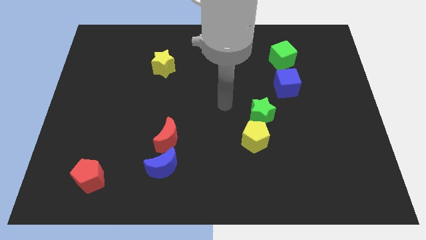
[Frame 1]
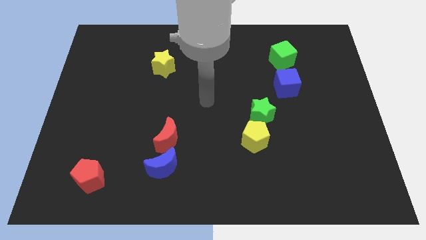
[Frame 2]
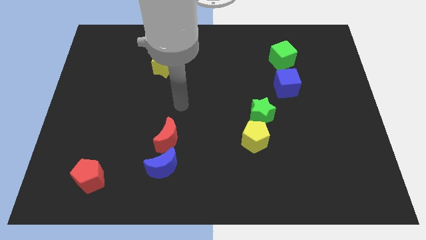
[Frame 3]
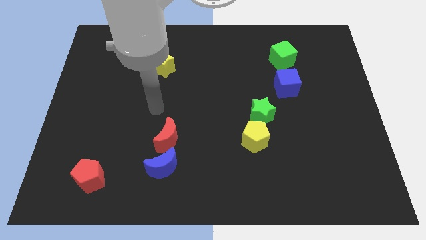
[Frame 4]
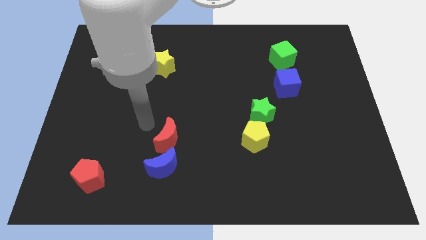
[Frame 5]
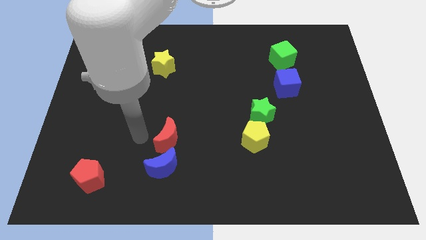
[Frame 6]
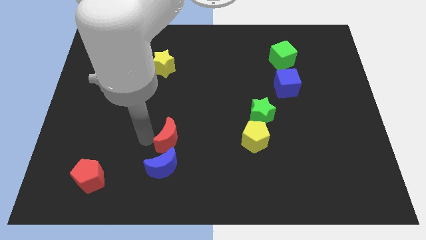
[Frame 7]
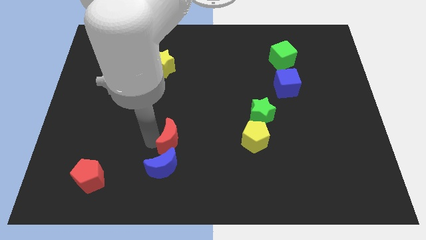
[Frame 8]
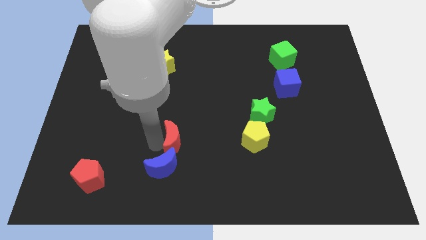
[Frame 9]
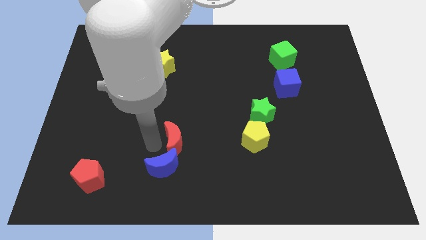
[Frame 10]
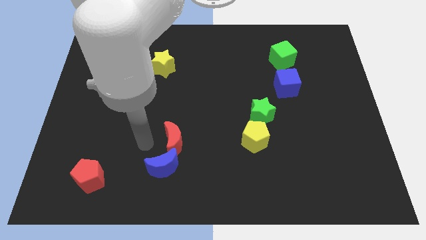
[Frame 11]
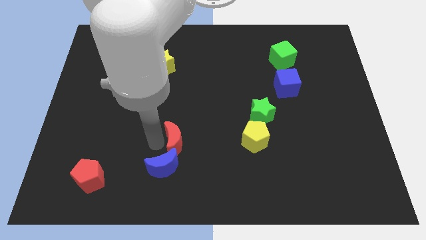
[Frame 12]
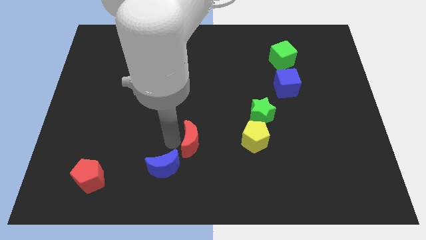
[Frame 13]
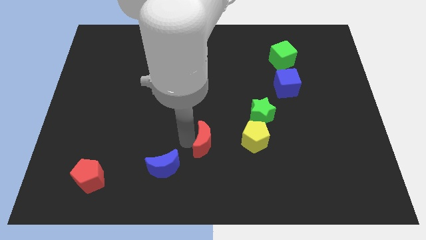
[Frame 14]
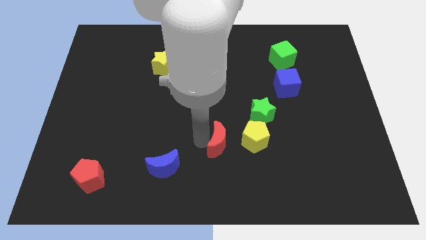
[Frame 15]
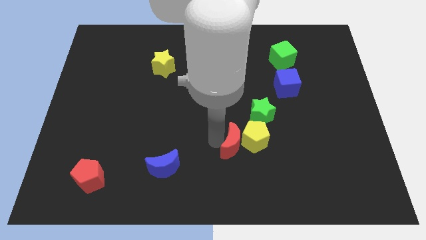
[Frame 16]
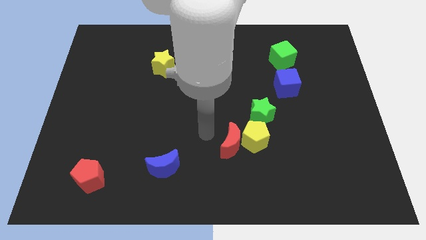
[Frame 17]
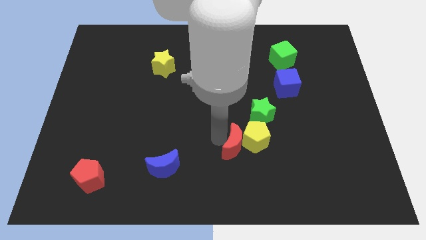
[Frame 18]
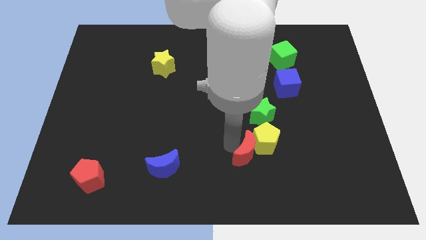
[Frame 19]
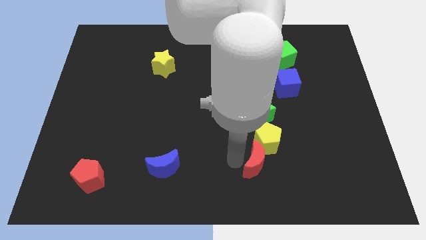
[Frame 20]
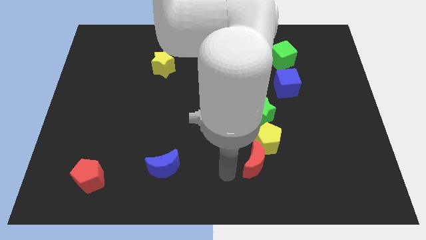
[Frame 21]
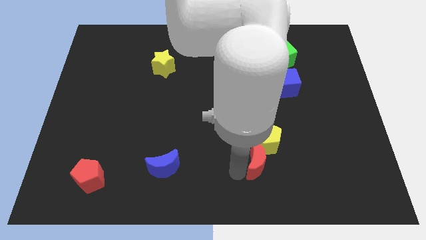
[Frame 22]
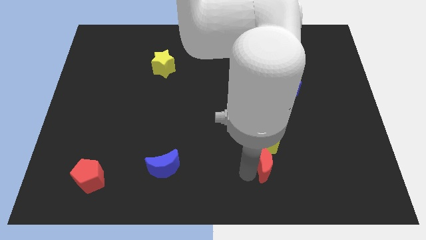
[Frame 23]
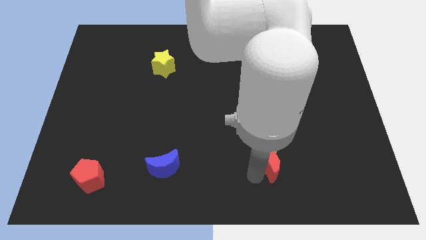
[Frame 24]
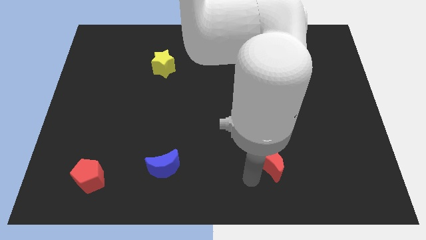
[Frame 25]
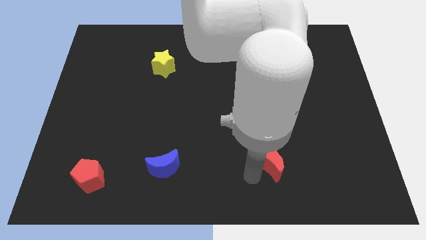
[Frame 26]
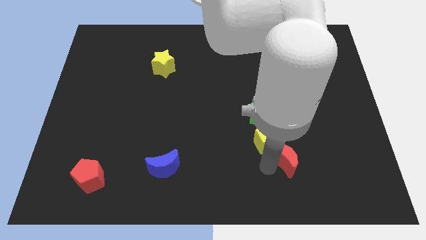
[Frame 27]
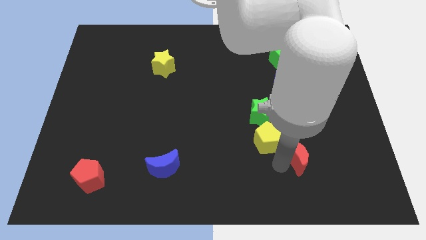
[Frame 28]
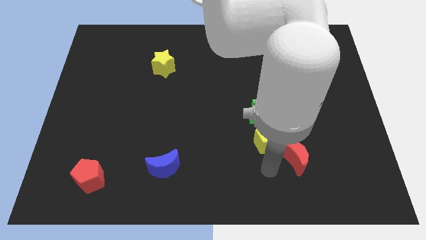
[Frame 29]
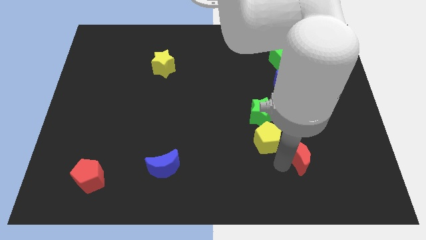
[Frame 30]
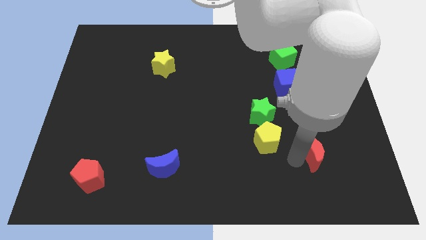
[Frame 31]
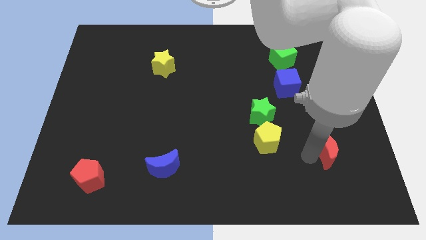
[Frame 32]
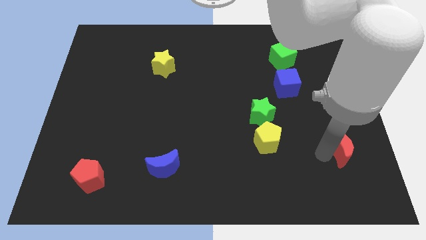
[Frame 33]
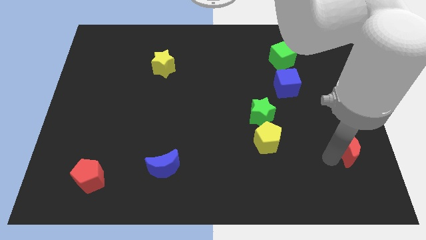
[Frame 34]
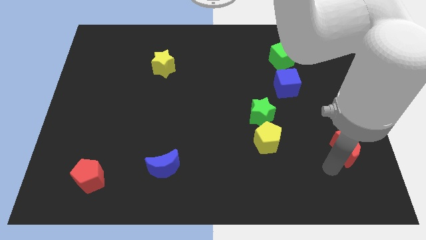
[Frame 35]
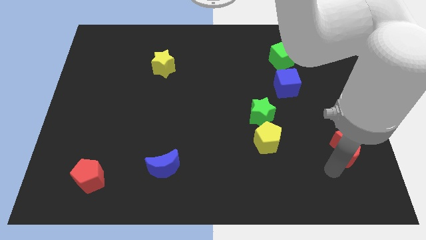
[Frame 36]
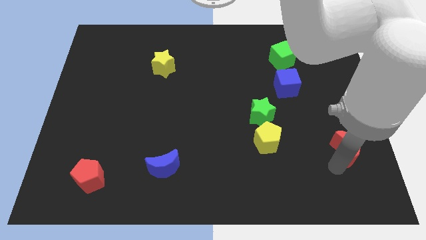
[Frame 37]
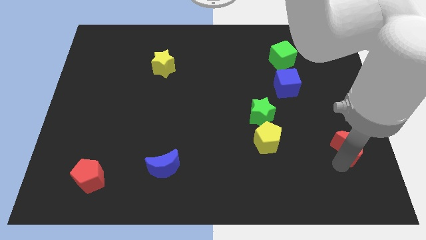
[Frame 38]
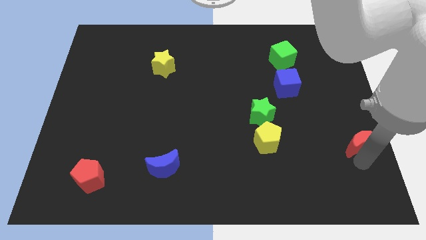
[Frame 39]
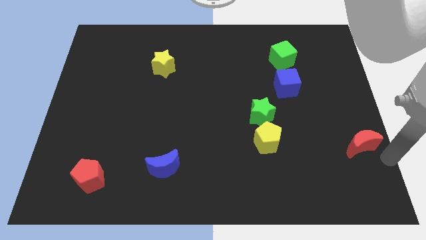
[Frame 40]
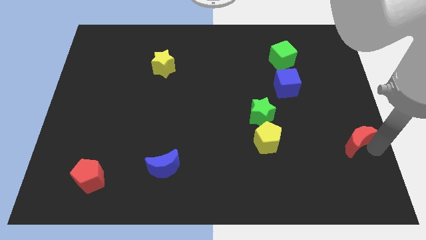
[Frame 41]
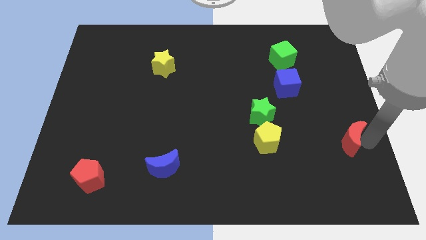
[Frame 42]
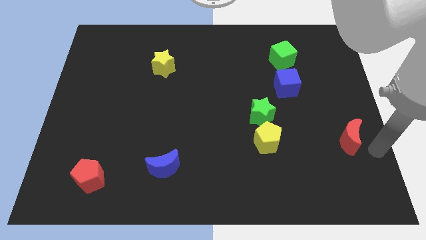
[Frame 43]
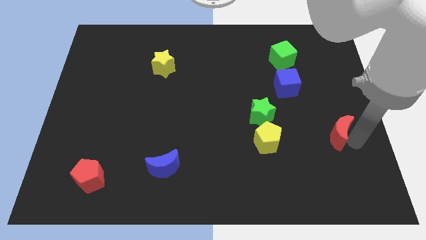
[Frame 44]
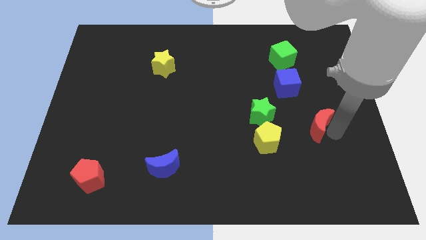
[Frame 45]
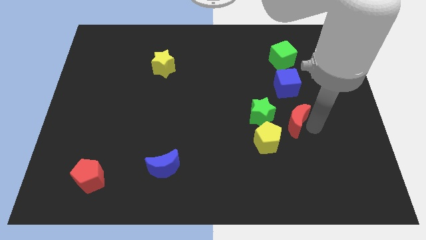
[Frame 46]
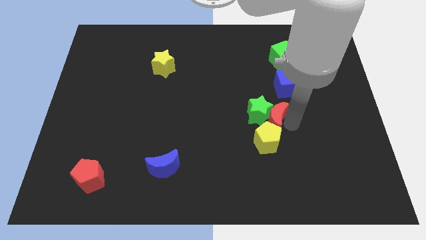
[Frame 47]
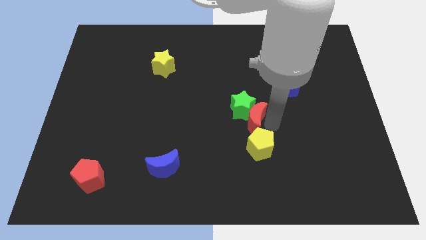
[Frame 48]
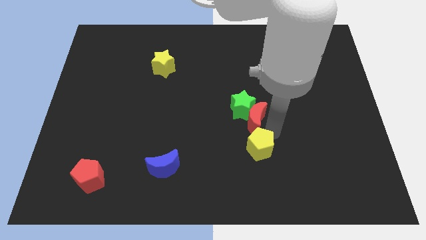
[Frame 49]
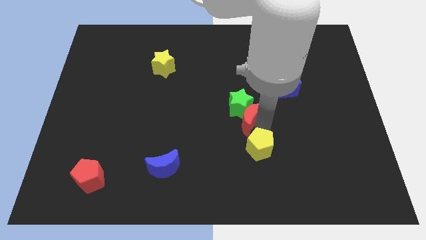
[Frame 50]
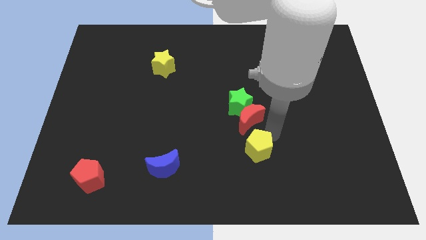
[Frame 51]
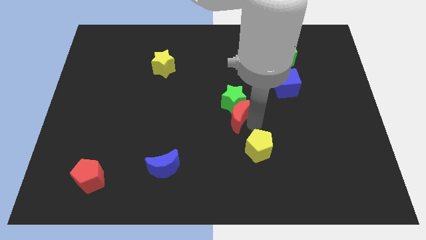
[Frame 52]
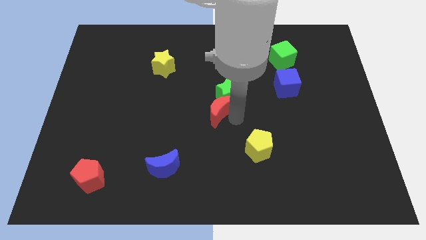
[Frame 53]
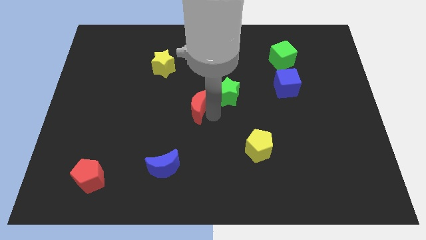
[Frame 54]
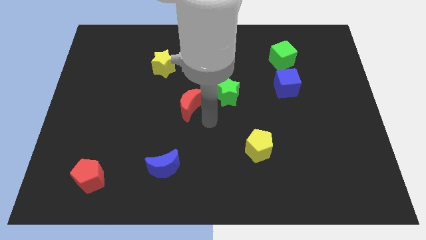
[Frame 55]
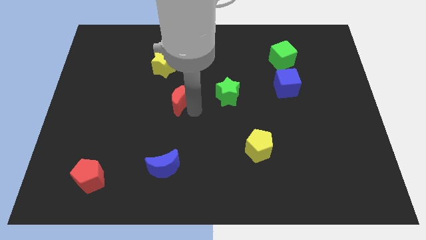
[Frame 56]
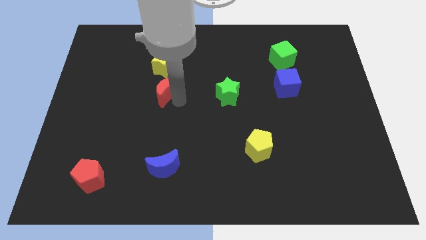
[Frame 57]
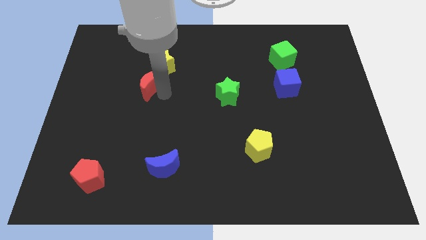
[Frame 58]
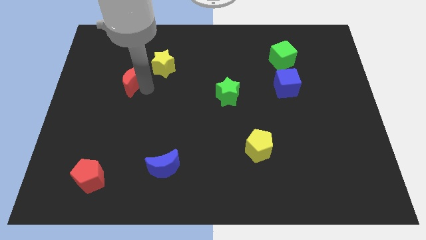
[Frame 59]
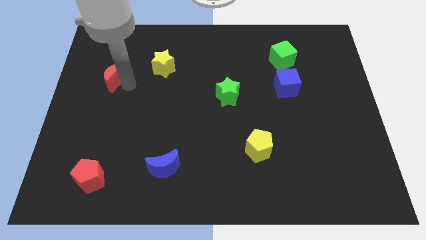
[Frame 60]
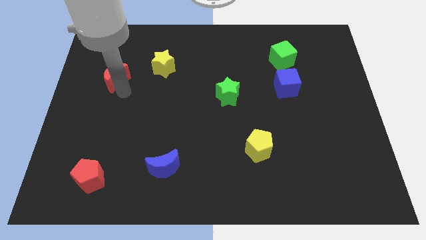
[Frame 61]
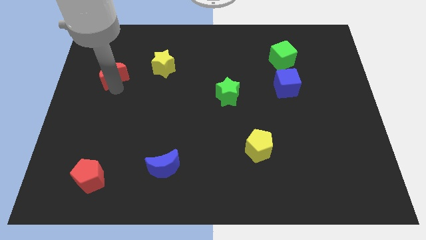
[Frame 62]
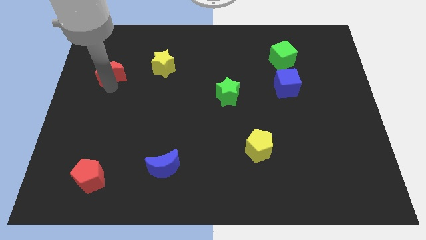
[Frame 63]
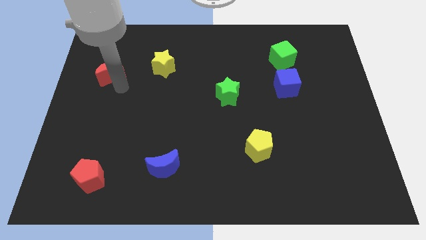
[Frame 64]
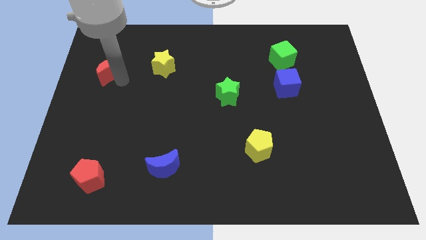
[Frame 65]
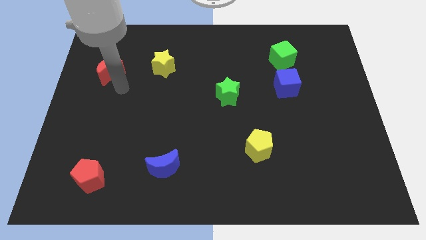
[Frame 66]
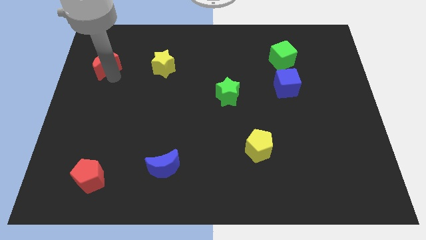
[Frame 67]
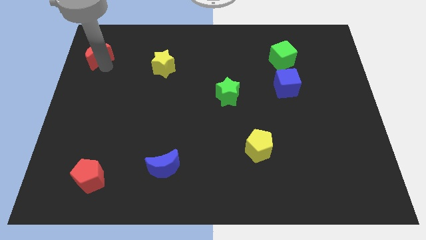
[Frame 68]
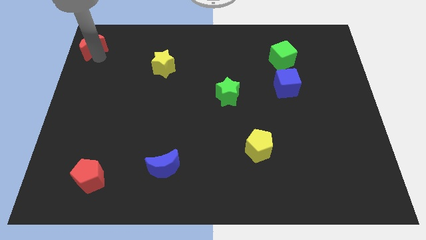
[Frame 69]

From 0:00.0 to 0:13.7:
move the red moon to the top left corner
